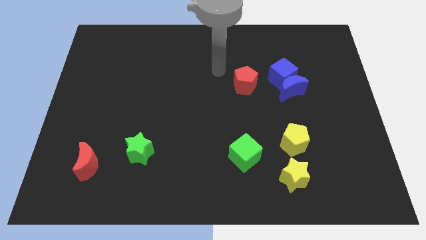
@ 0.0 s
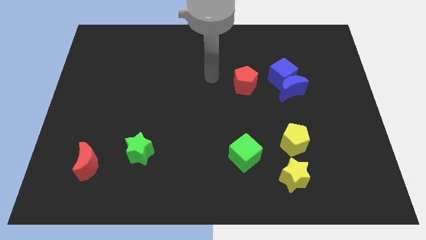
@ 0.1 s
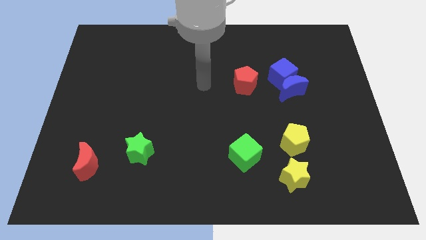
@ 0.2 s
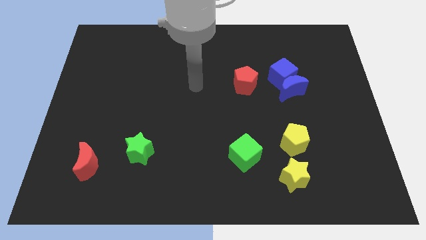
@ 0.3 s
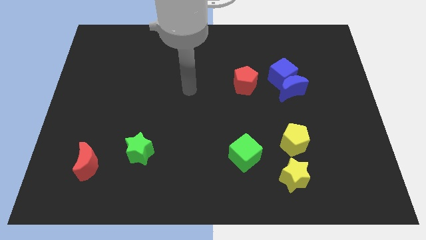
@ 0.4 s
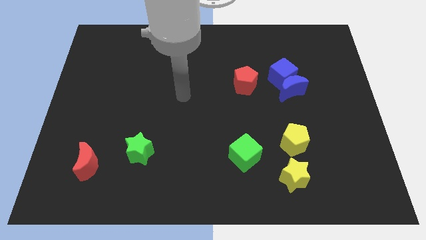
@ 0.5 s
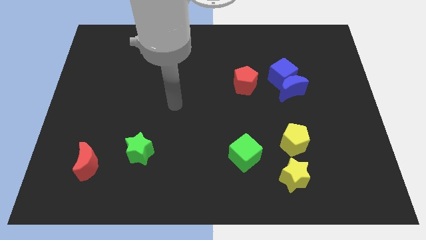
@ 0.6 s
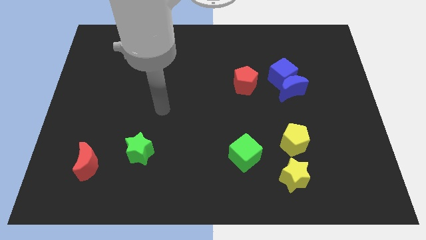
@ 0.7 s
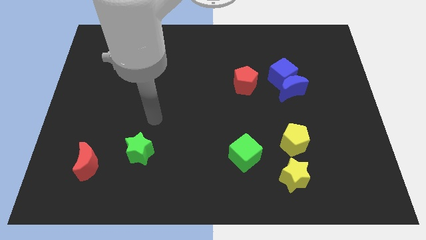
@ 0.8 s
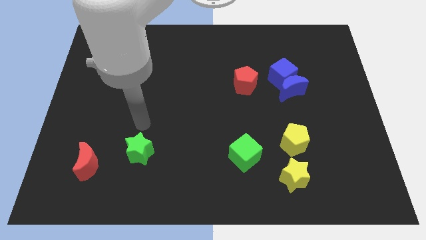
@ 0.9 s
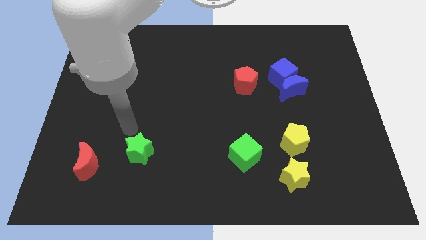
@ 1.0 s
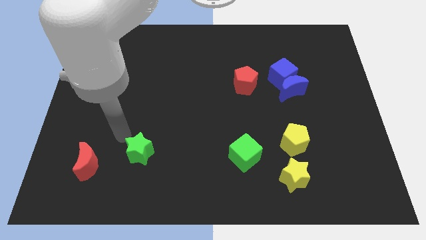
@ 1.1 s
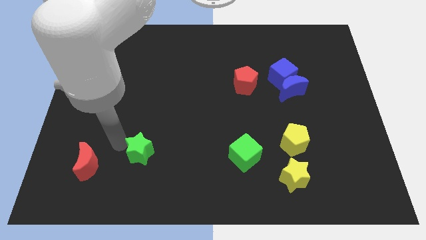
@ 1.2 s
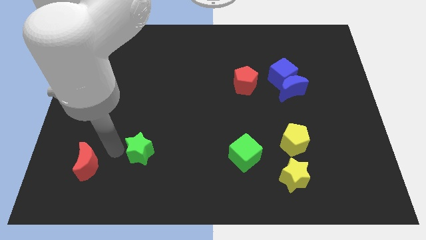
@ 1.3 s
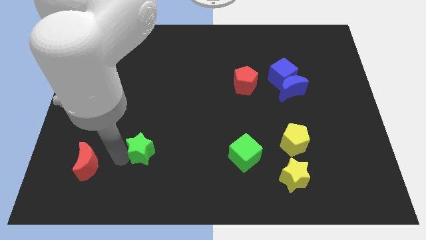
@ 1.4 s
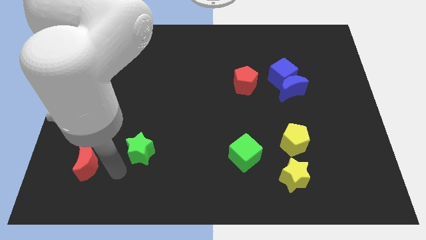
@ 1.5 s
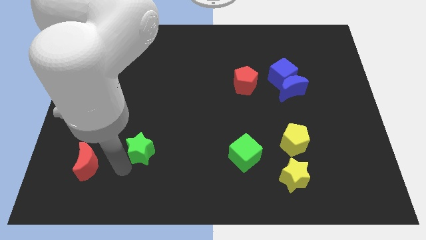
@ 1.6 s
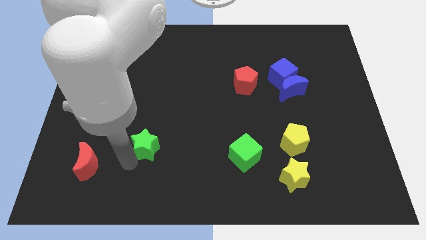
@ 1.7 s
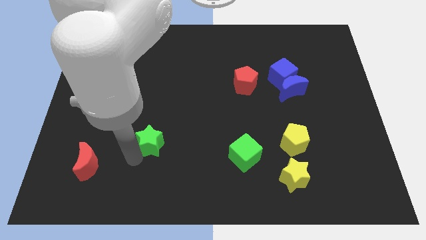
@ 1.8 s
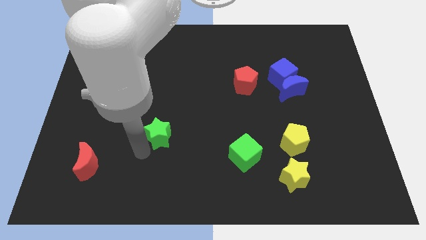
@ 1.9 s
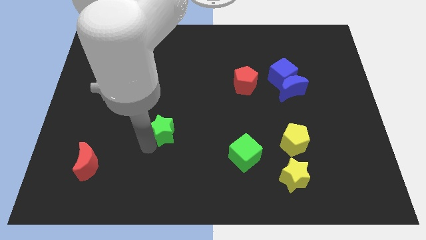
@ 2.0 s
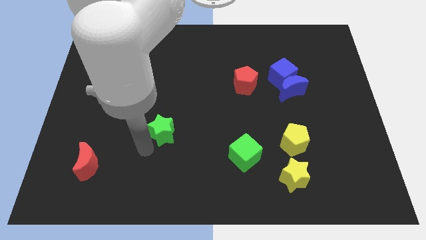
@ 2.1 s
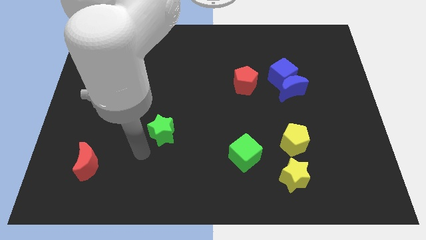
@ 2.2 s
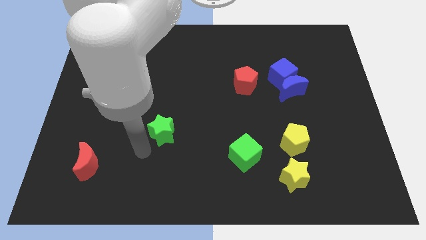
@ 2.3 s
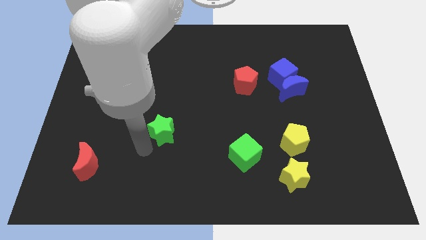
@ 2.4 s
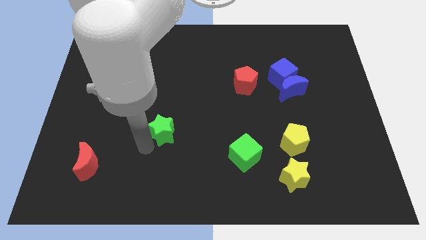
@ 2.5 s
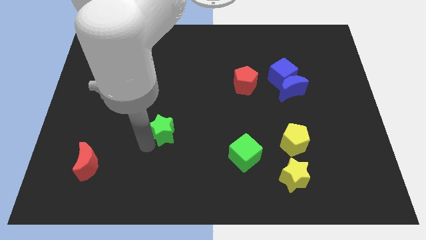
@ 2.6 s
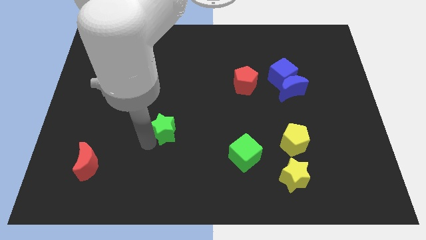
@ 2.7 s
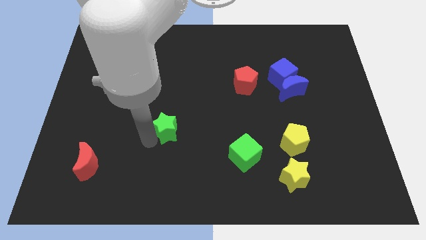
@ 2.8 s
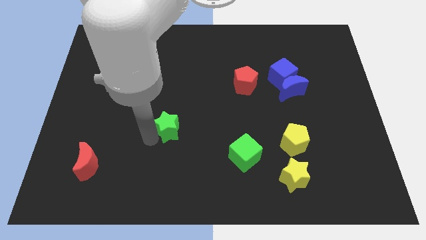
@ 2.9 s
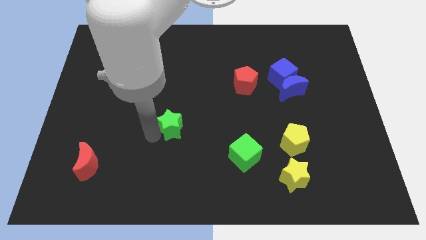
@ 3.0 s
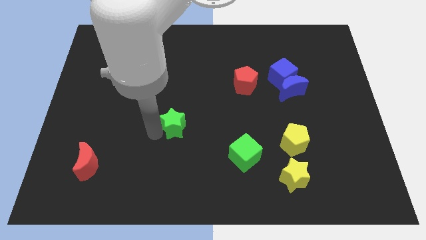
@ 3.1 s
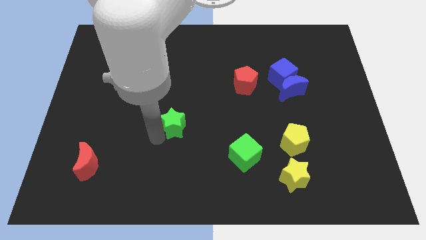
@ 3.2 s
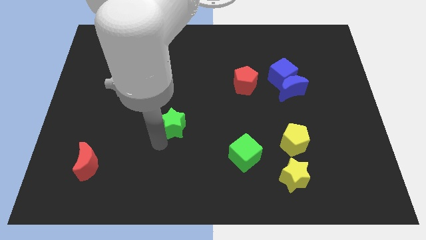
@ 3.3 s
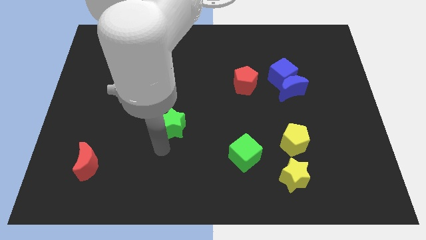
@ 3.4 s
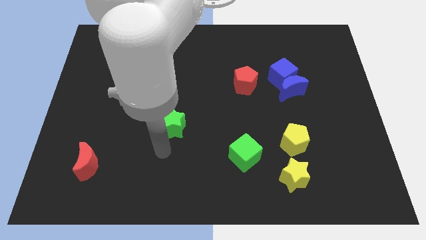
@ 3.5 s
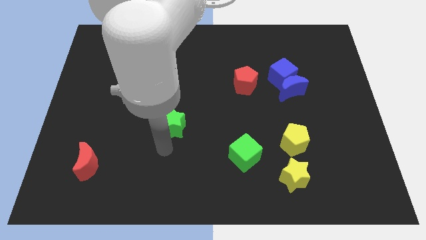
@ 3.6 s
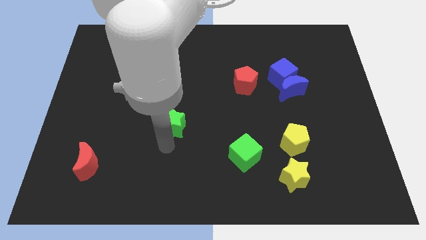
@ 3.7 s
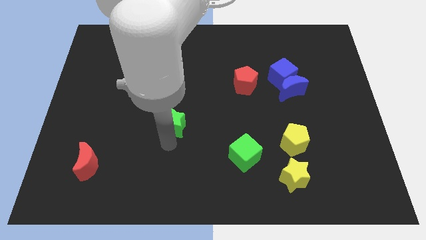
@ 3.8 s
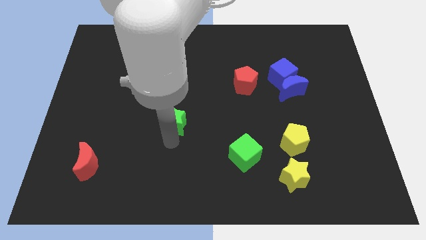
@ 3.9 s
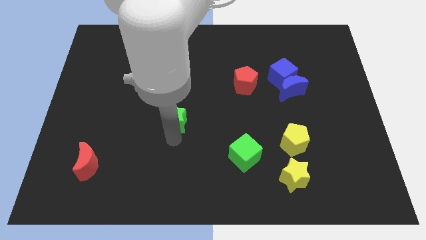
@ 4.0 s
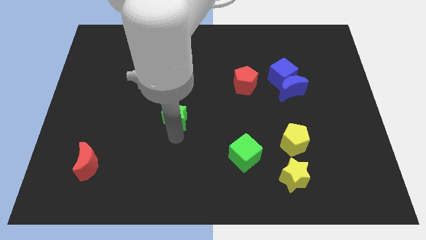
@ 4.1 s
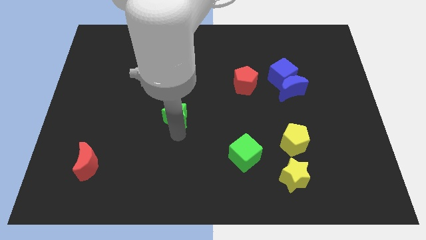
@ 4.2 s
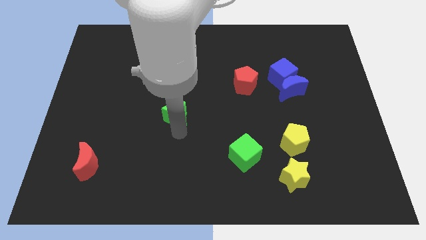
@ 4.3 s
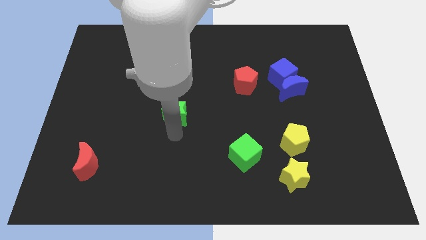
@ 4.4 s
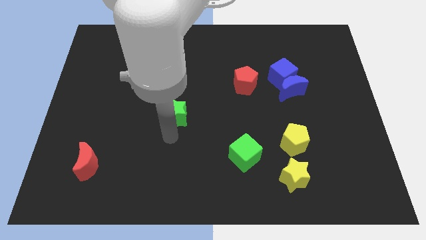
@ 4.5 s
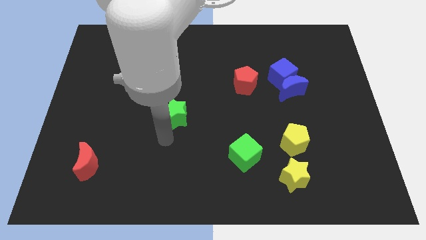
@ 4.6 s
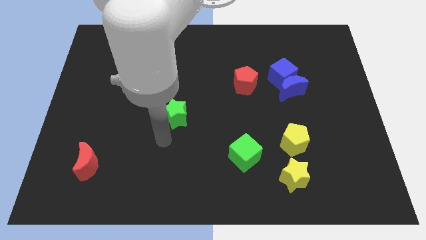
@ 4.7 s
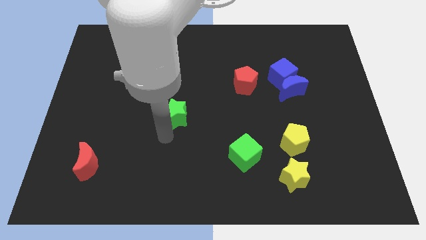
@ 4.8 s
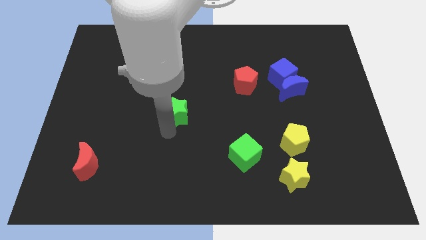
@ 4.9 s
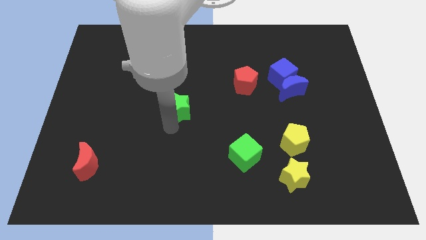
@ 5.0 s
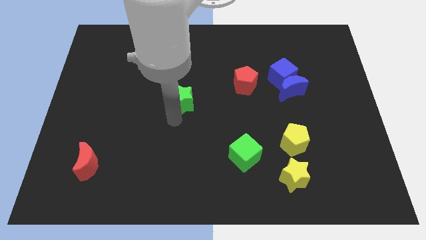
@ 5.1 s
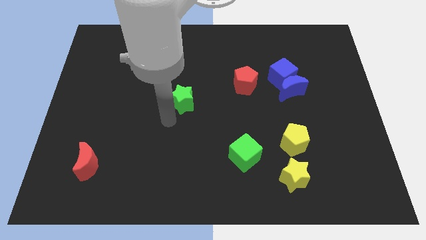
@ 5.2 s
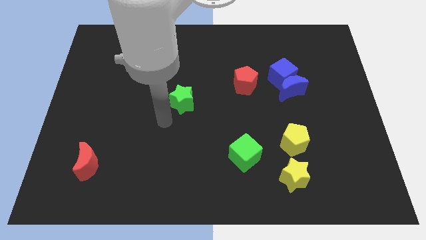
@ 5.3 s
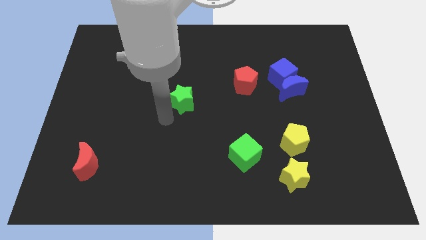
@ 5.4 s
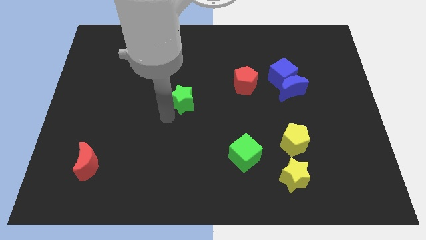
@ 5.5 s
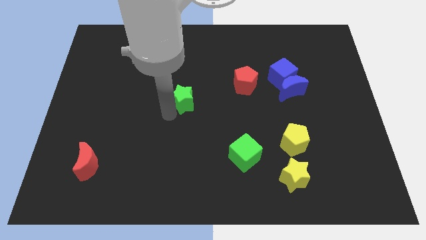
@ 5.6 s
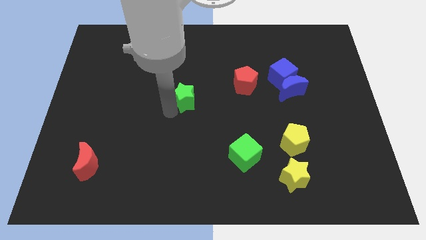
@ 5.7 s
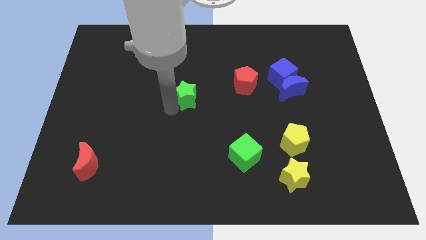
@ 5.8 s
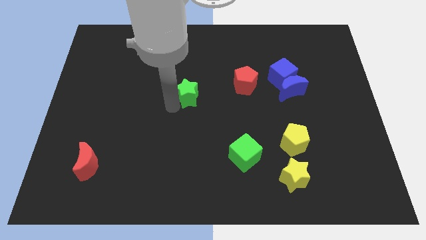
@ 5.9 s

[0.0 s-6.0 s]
push the green star to the left side of the red pentagon

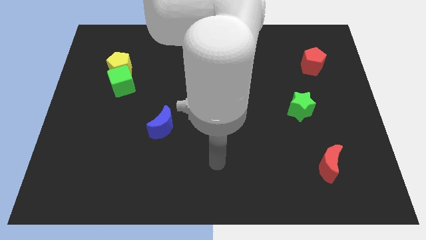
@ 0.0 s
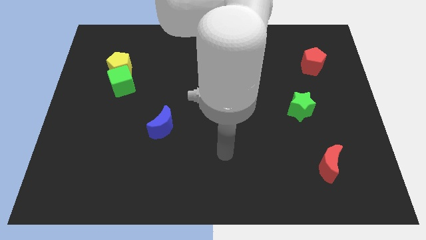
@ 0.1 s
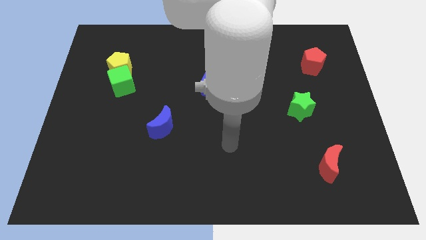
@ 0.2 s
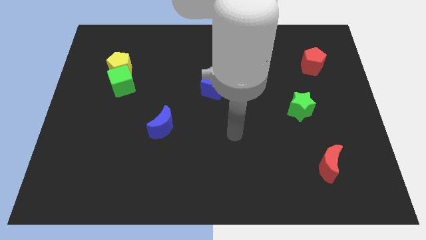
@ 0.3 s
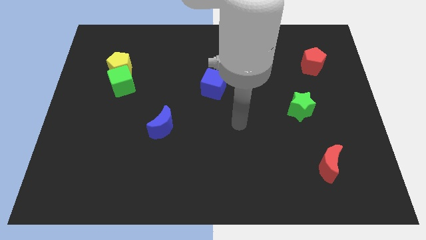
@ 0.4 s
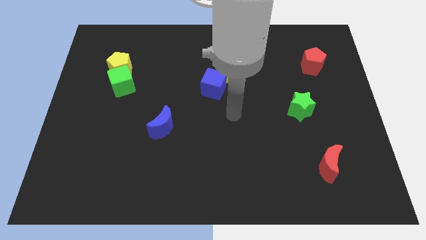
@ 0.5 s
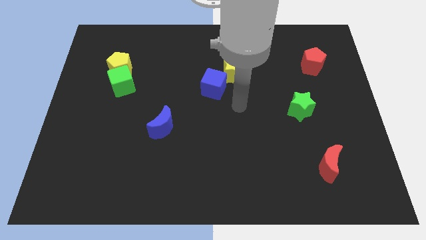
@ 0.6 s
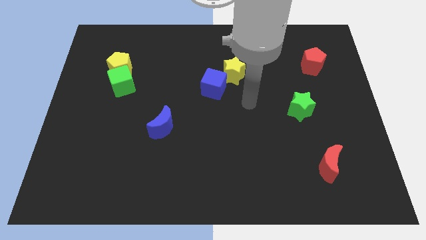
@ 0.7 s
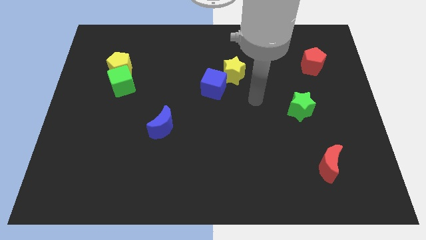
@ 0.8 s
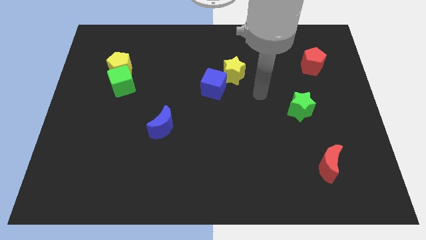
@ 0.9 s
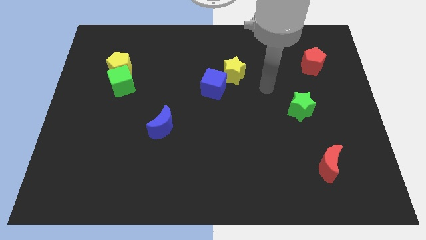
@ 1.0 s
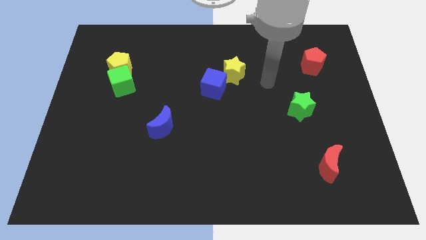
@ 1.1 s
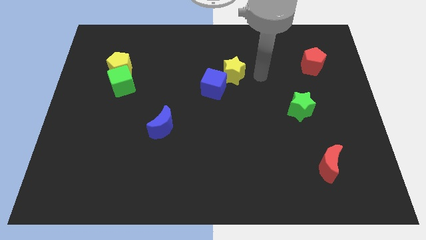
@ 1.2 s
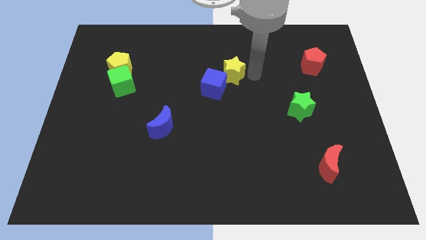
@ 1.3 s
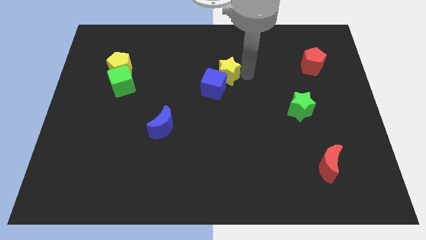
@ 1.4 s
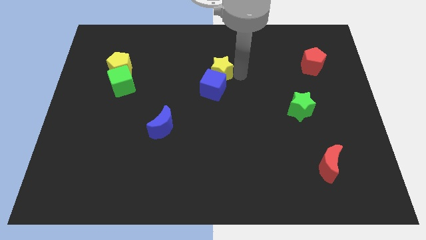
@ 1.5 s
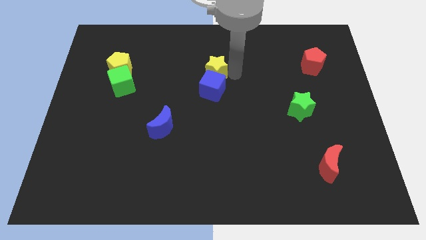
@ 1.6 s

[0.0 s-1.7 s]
push the yellow star to the top left of the blue cube
